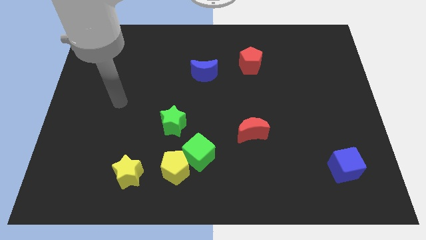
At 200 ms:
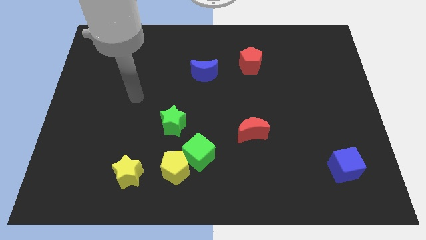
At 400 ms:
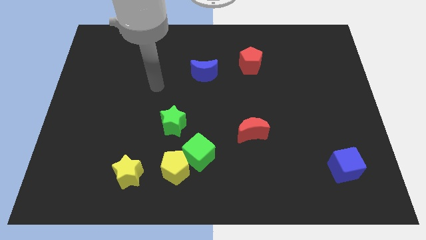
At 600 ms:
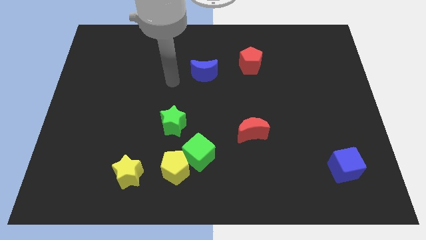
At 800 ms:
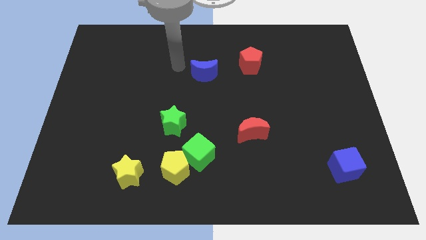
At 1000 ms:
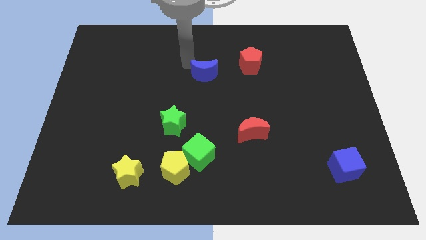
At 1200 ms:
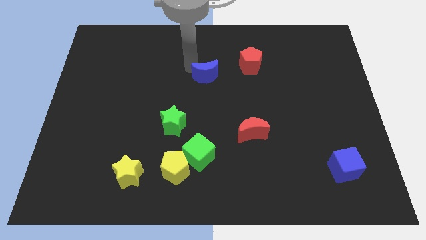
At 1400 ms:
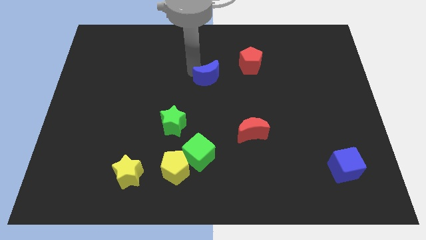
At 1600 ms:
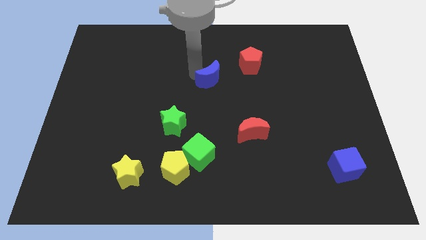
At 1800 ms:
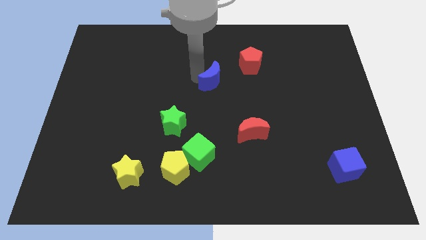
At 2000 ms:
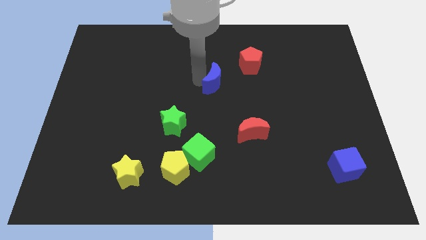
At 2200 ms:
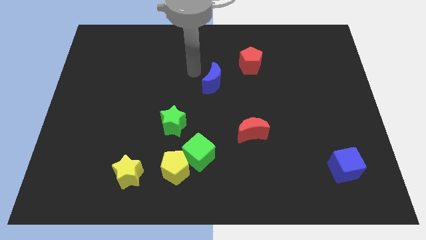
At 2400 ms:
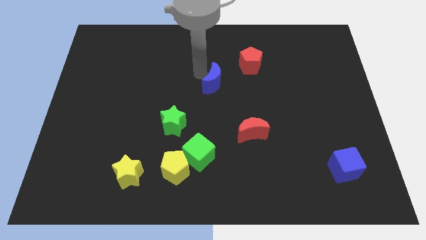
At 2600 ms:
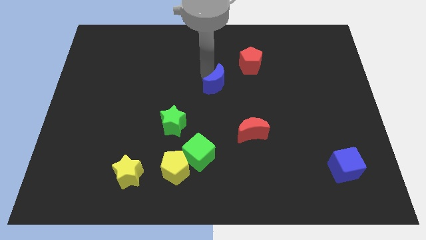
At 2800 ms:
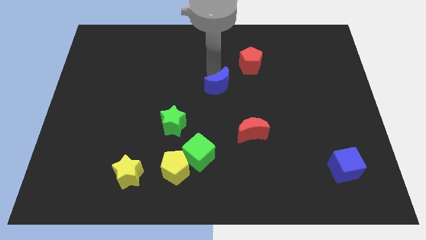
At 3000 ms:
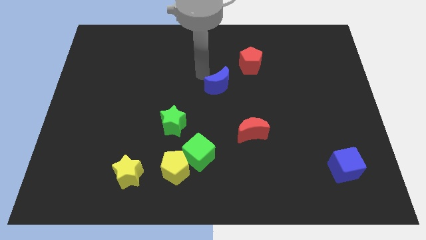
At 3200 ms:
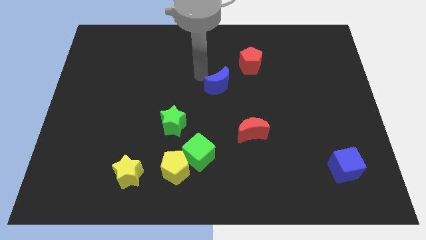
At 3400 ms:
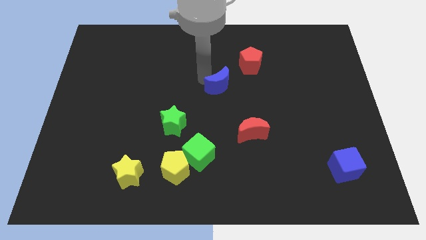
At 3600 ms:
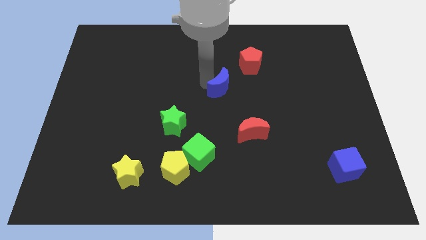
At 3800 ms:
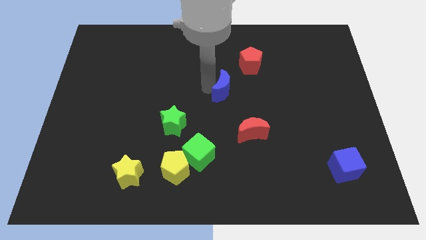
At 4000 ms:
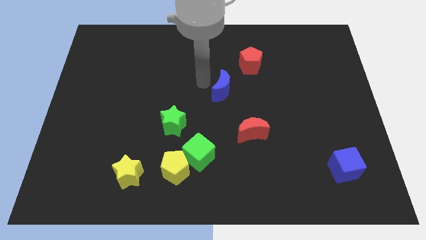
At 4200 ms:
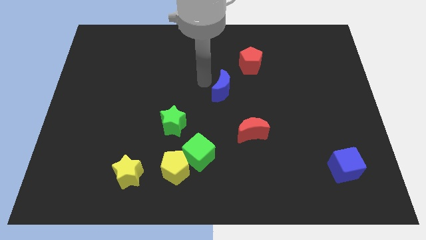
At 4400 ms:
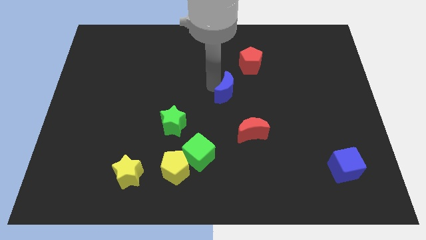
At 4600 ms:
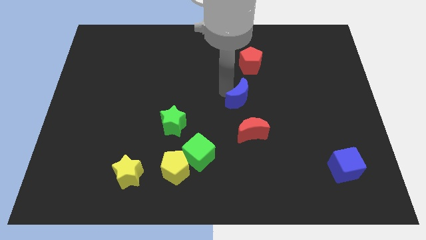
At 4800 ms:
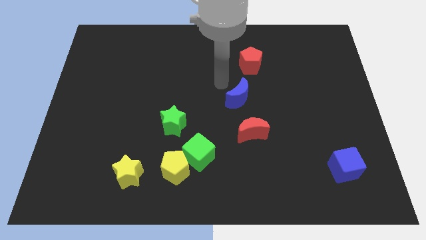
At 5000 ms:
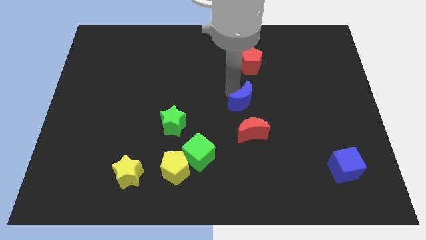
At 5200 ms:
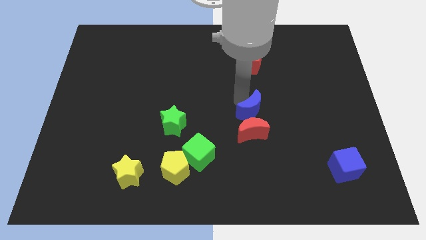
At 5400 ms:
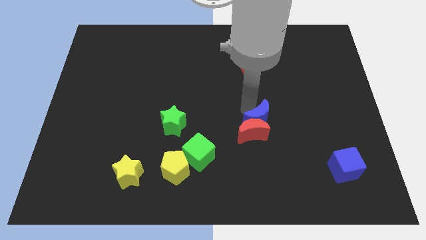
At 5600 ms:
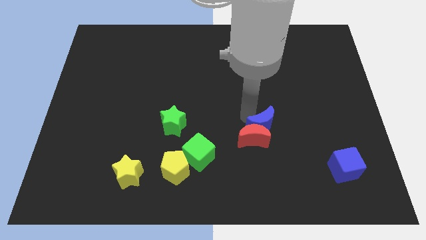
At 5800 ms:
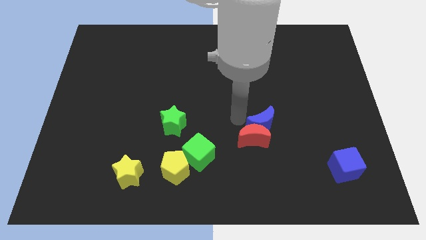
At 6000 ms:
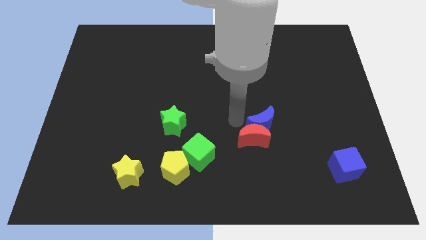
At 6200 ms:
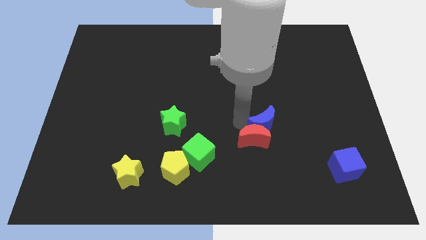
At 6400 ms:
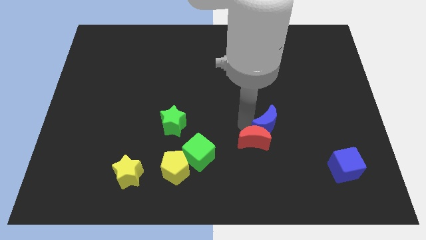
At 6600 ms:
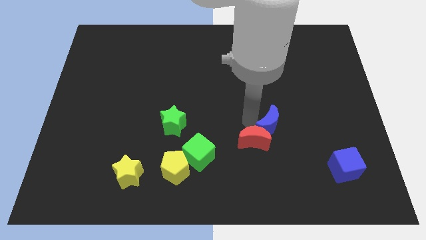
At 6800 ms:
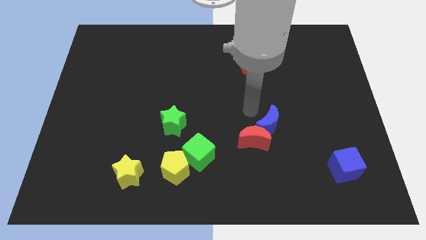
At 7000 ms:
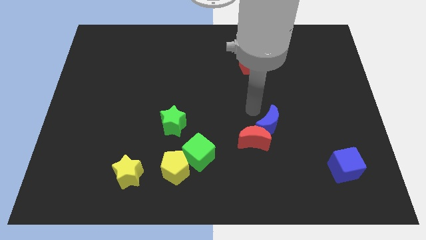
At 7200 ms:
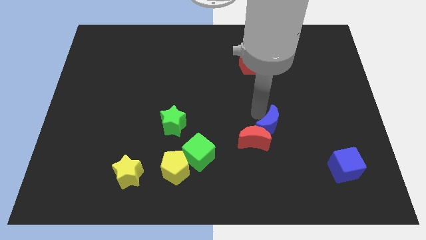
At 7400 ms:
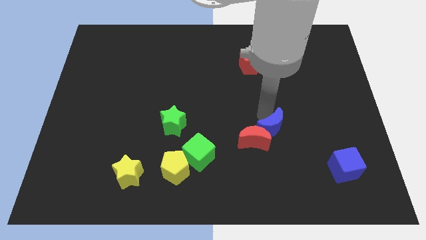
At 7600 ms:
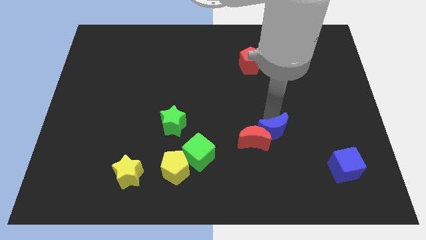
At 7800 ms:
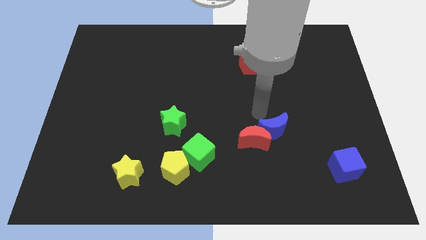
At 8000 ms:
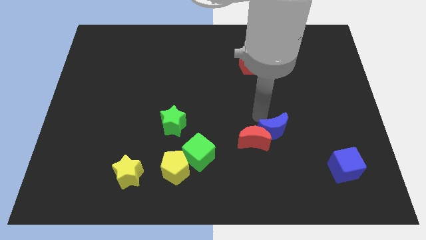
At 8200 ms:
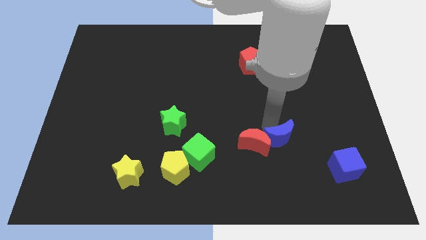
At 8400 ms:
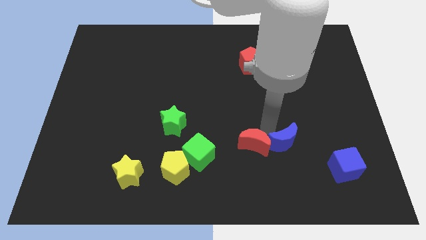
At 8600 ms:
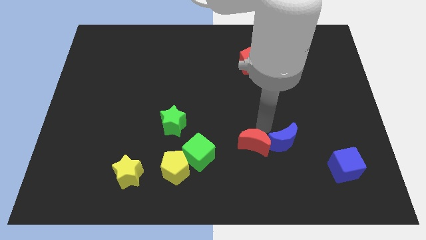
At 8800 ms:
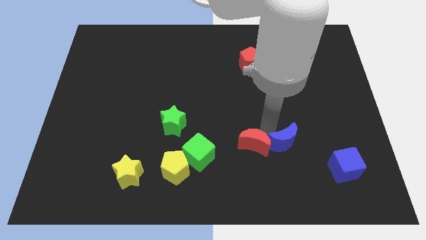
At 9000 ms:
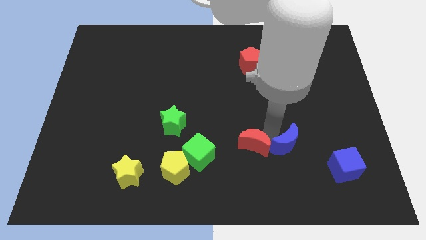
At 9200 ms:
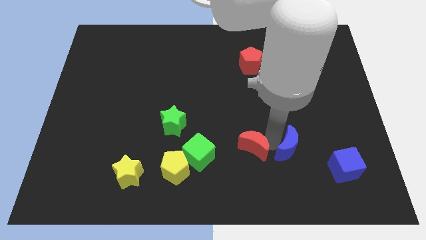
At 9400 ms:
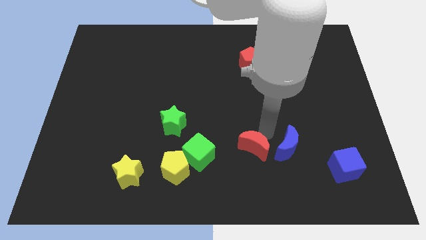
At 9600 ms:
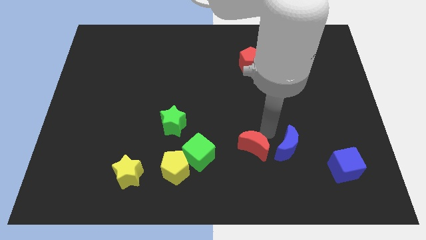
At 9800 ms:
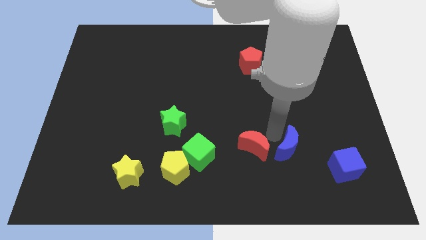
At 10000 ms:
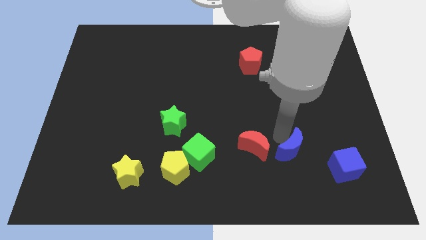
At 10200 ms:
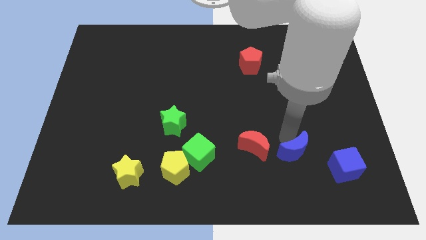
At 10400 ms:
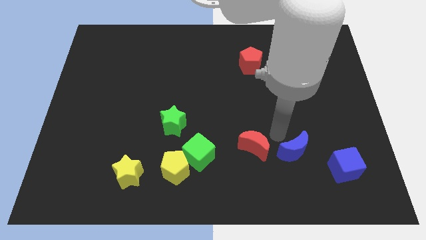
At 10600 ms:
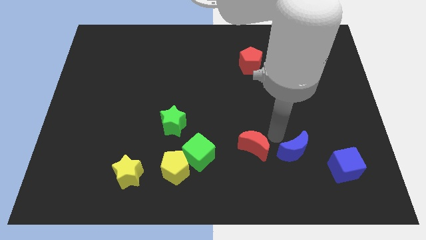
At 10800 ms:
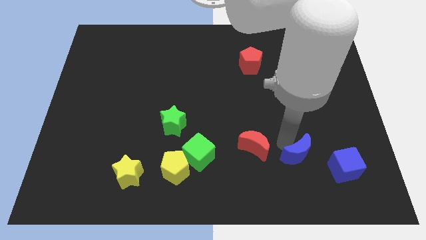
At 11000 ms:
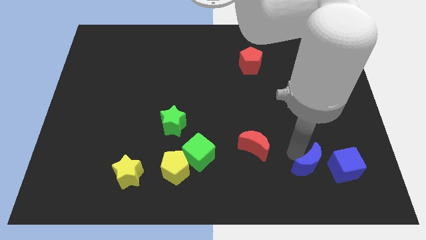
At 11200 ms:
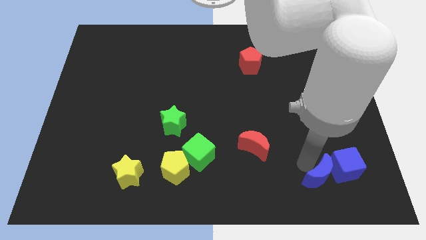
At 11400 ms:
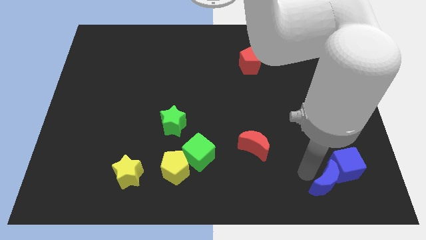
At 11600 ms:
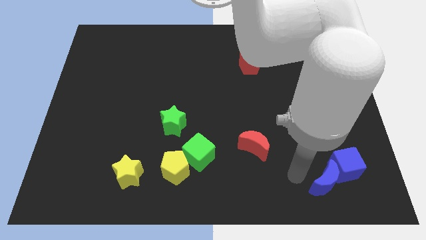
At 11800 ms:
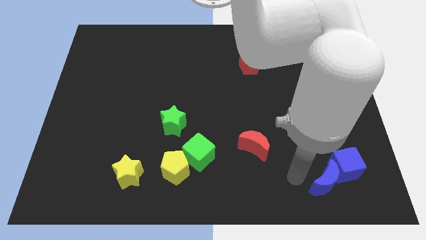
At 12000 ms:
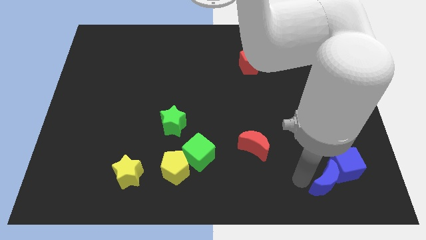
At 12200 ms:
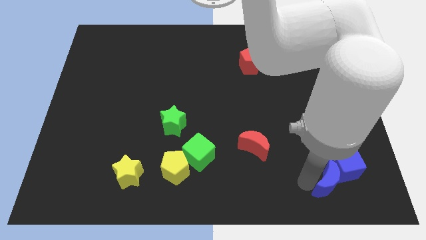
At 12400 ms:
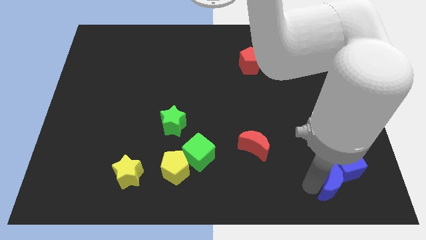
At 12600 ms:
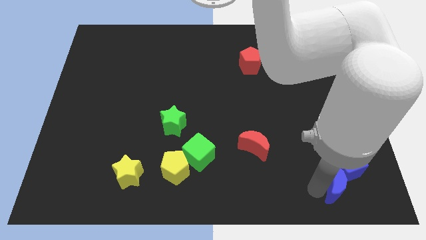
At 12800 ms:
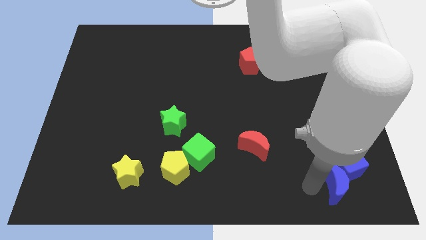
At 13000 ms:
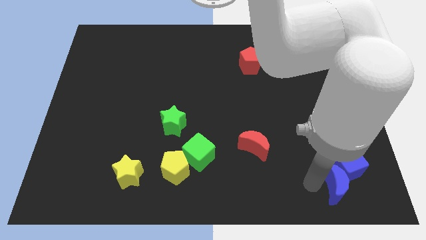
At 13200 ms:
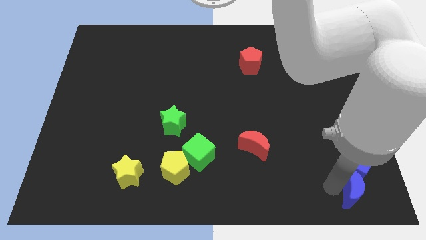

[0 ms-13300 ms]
slide the blue moon to the bottom right of the board
